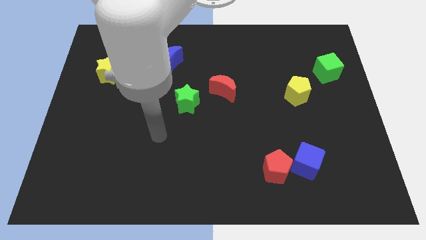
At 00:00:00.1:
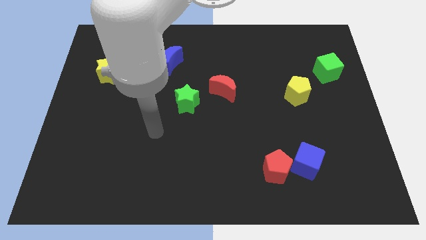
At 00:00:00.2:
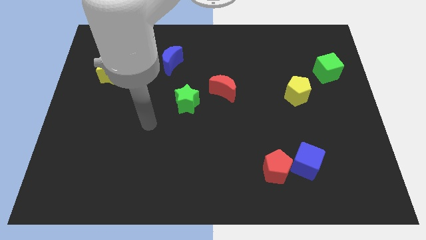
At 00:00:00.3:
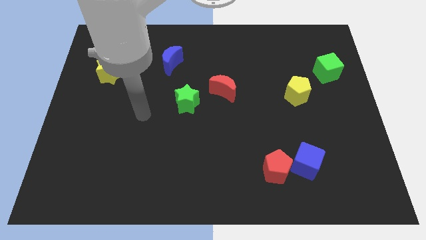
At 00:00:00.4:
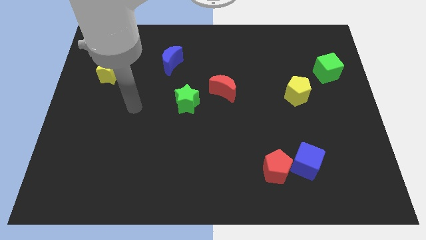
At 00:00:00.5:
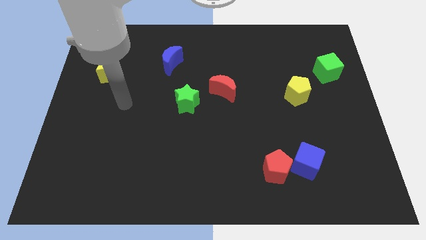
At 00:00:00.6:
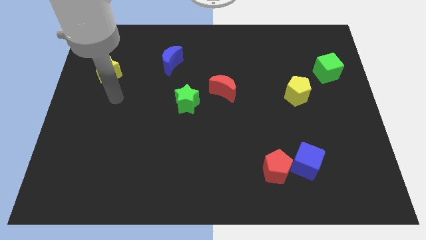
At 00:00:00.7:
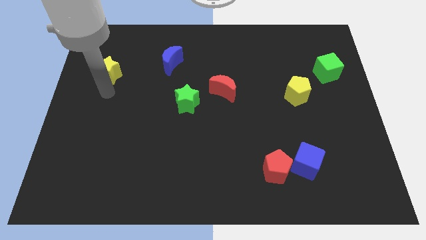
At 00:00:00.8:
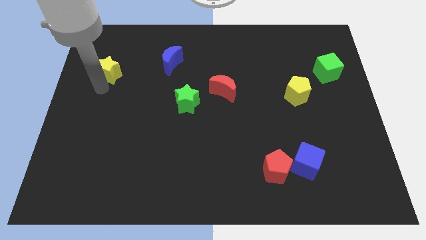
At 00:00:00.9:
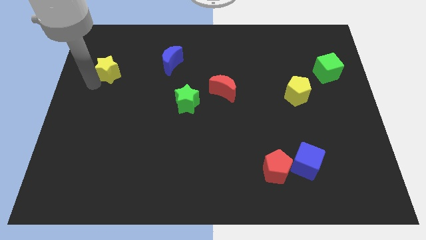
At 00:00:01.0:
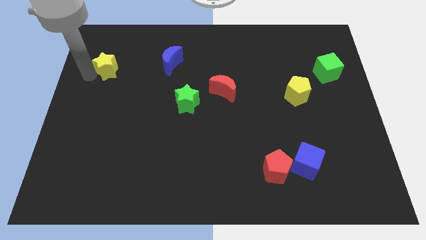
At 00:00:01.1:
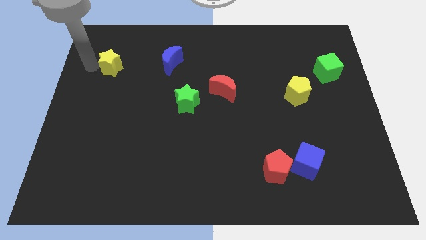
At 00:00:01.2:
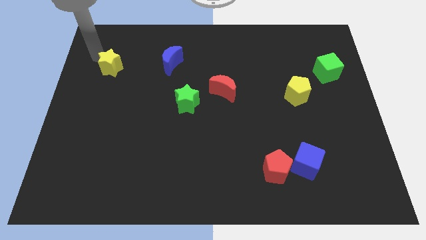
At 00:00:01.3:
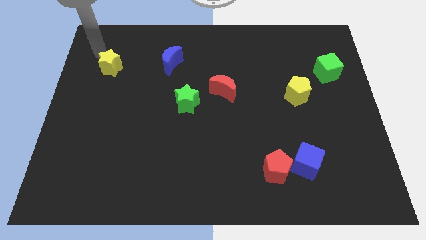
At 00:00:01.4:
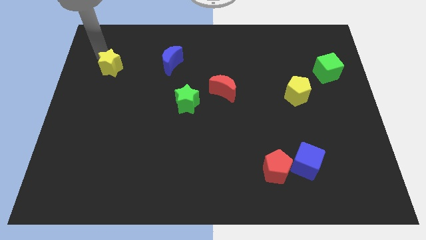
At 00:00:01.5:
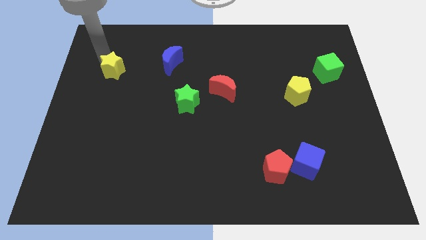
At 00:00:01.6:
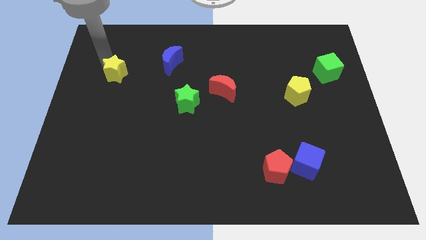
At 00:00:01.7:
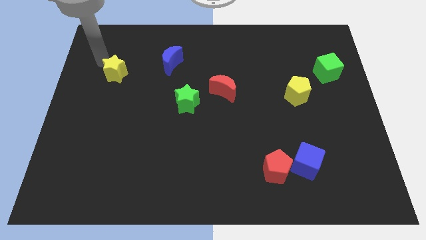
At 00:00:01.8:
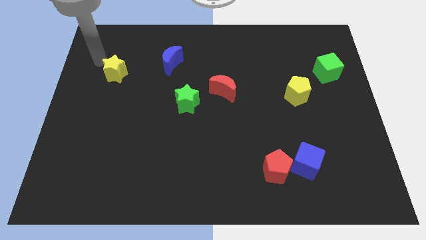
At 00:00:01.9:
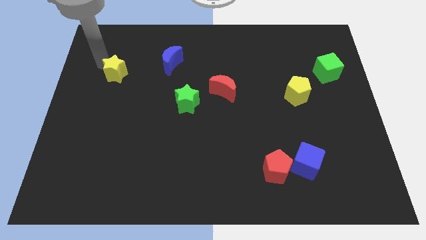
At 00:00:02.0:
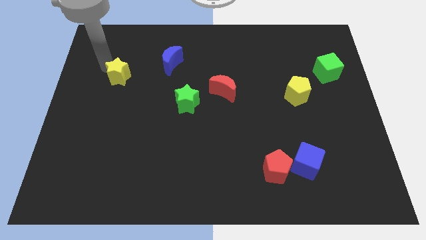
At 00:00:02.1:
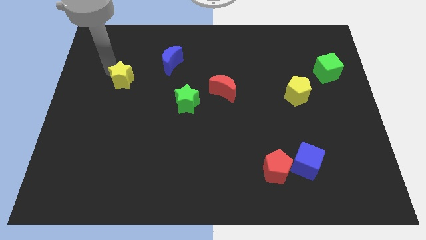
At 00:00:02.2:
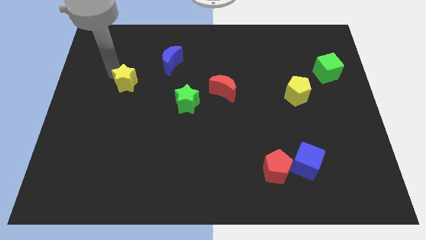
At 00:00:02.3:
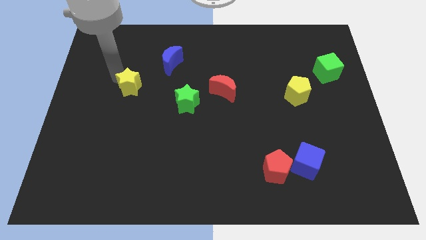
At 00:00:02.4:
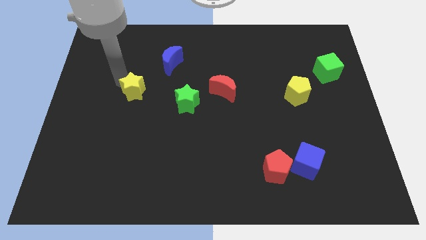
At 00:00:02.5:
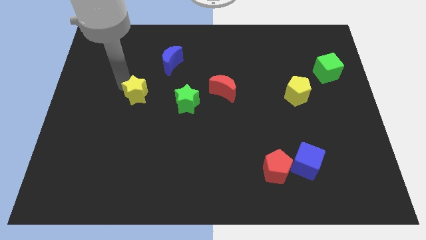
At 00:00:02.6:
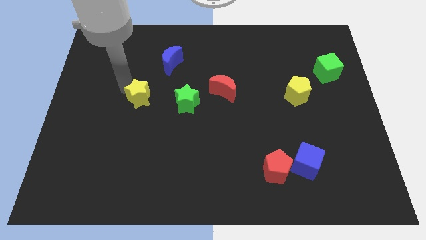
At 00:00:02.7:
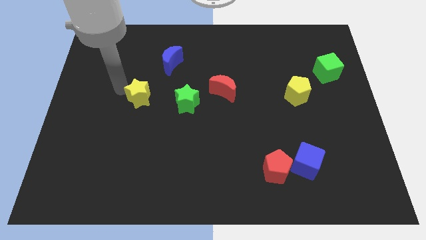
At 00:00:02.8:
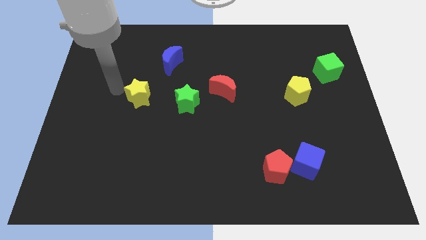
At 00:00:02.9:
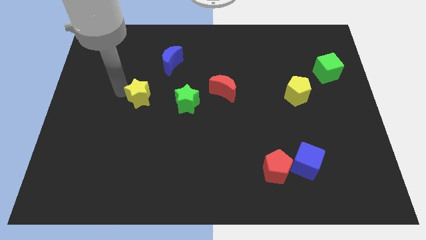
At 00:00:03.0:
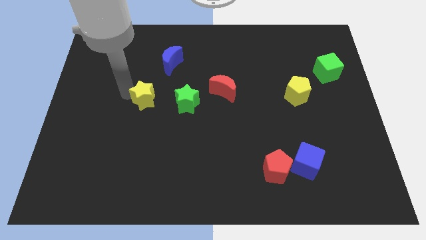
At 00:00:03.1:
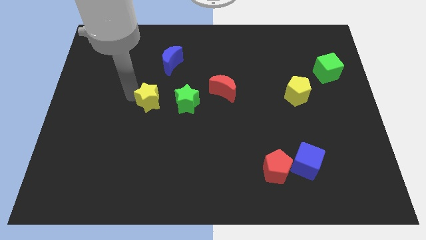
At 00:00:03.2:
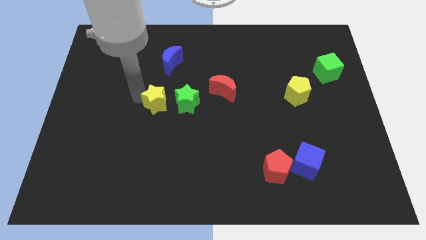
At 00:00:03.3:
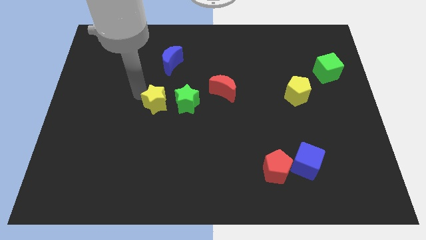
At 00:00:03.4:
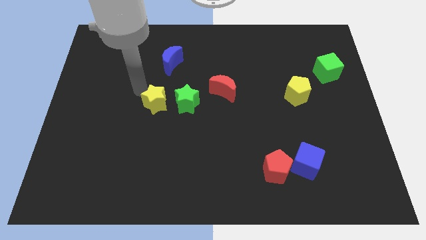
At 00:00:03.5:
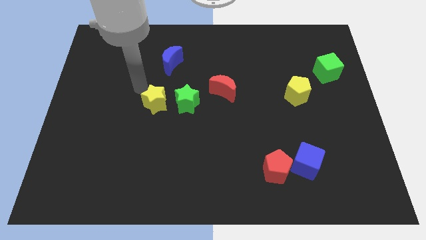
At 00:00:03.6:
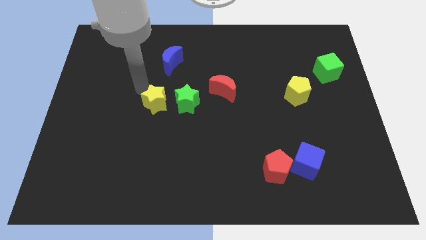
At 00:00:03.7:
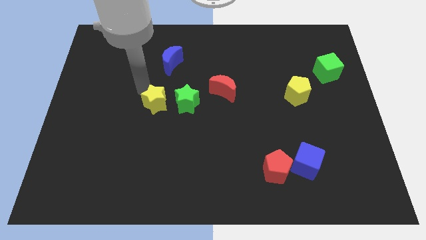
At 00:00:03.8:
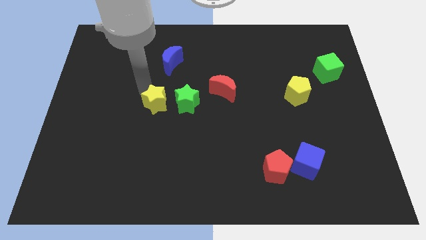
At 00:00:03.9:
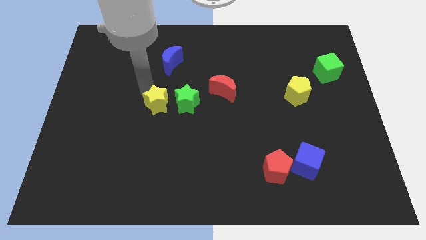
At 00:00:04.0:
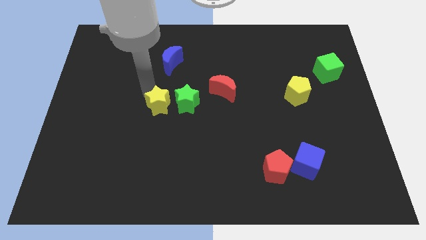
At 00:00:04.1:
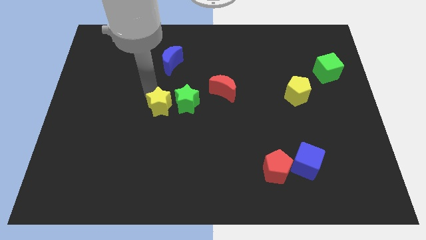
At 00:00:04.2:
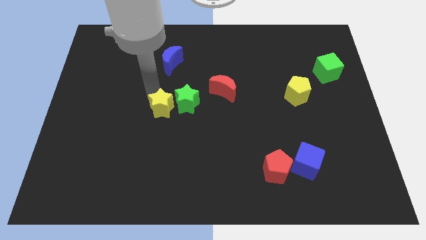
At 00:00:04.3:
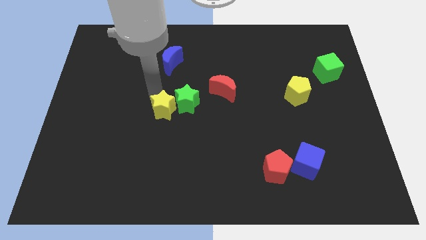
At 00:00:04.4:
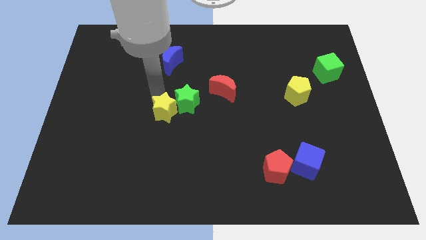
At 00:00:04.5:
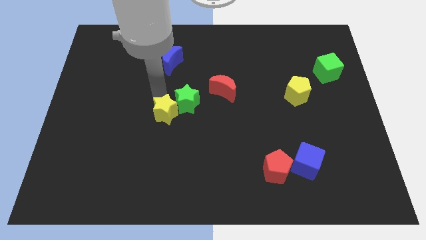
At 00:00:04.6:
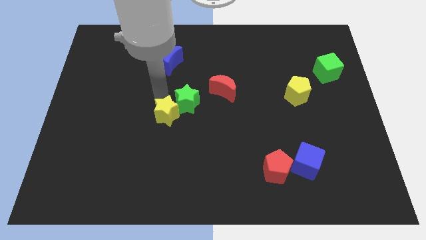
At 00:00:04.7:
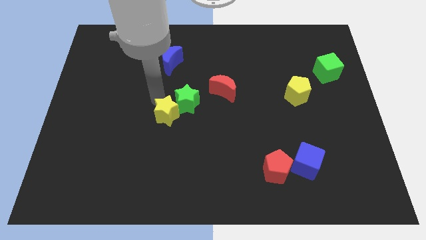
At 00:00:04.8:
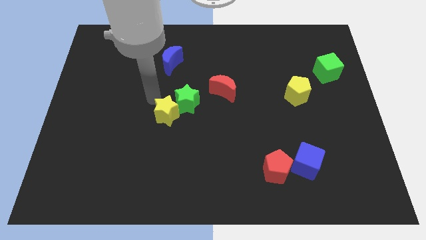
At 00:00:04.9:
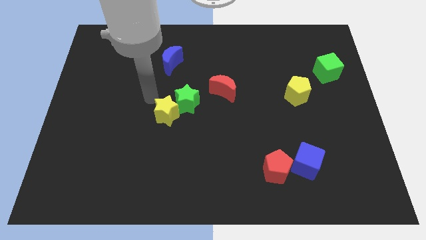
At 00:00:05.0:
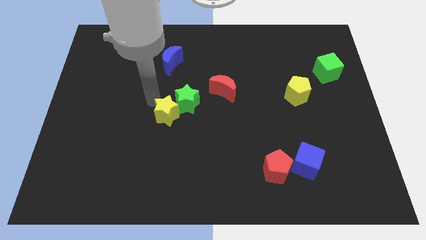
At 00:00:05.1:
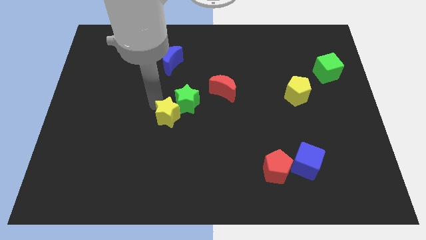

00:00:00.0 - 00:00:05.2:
put the yellow star to the bottom side of the green star

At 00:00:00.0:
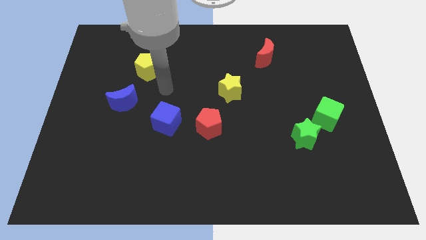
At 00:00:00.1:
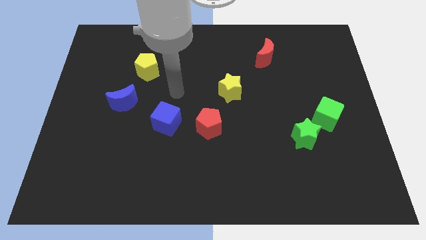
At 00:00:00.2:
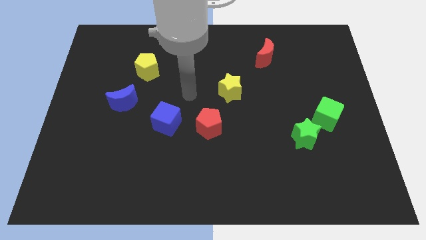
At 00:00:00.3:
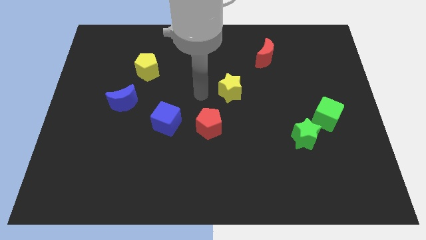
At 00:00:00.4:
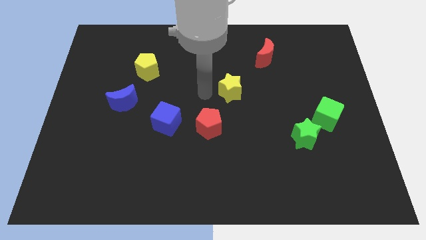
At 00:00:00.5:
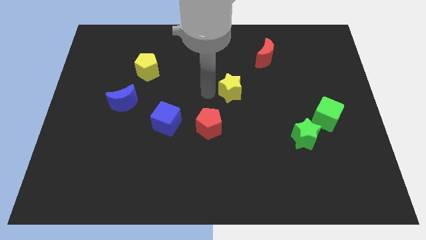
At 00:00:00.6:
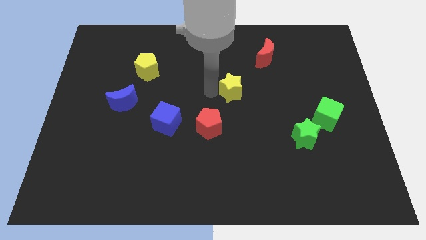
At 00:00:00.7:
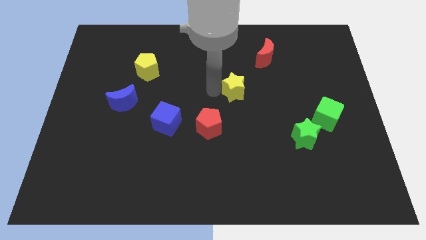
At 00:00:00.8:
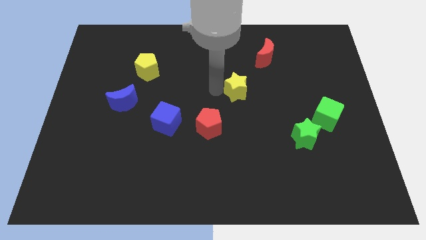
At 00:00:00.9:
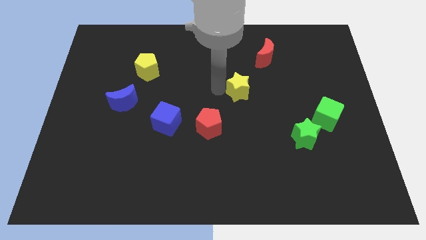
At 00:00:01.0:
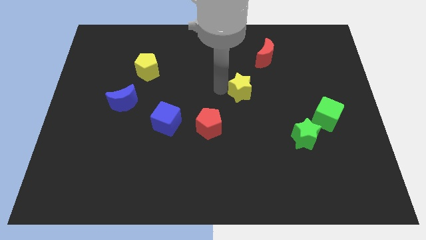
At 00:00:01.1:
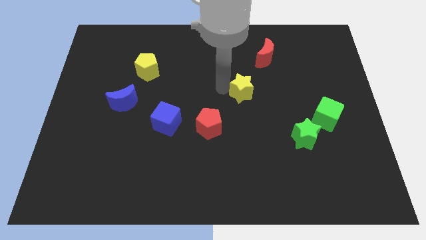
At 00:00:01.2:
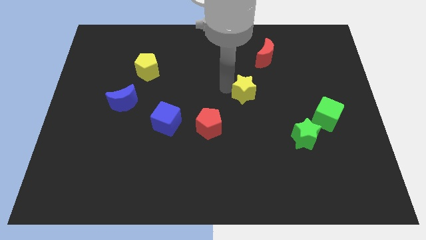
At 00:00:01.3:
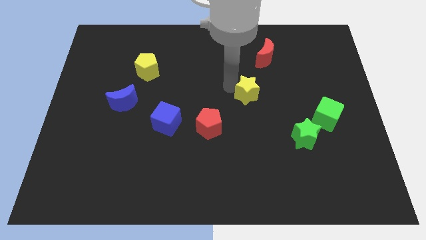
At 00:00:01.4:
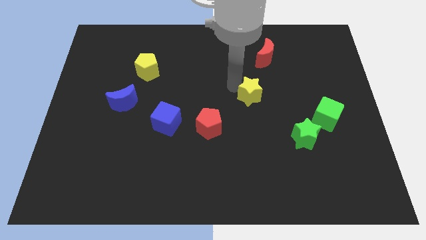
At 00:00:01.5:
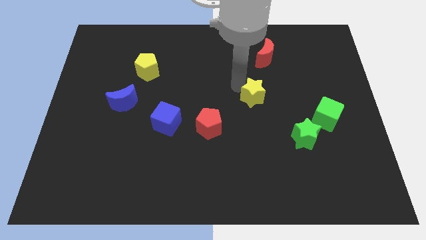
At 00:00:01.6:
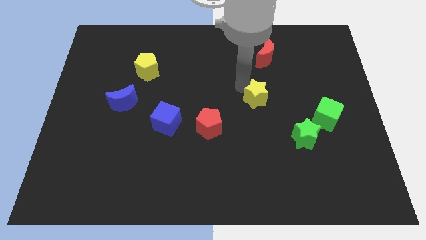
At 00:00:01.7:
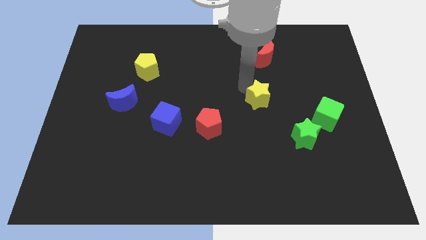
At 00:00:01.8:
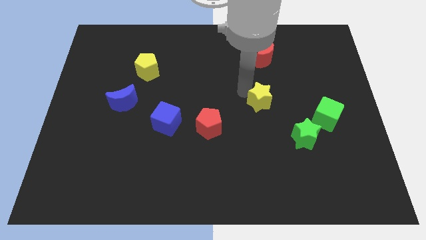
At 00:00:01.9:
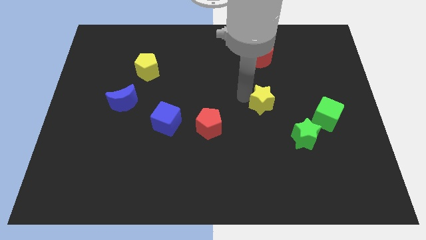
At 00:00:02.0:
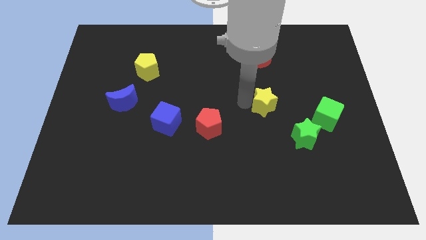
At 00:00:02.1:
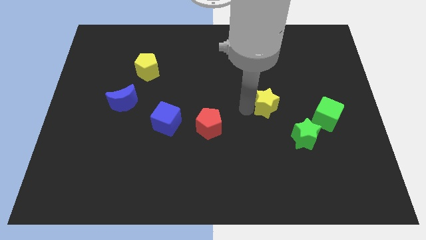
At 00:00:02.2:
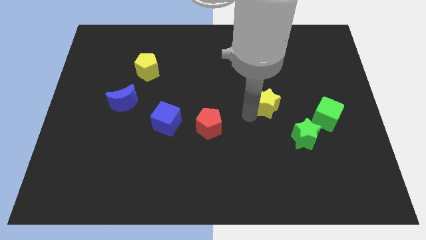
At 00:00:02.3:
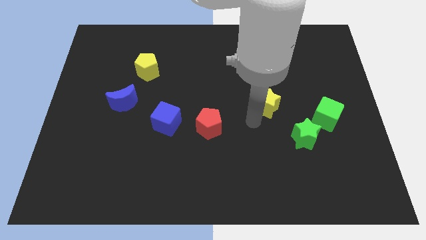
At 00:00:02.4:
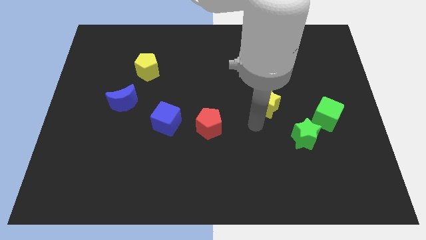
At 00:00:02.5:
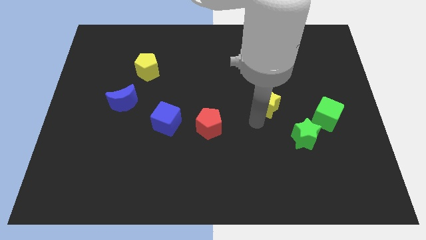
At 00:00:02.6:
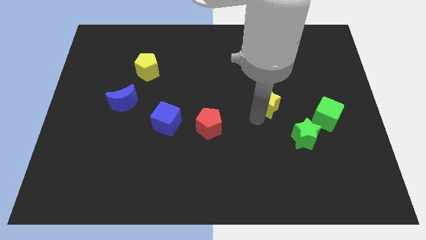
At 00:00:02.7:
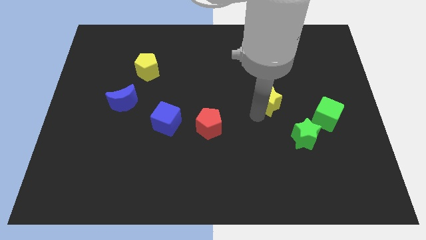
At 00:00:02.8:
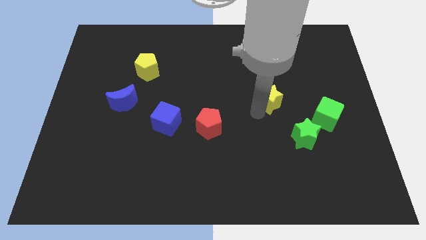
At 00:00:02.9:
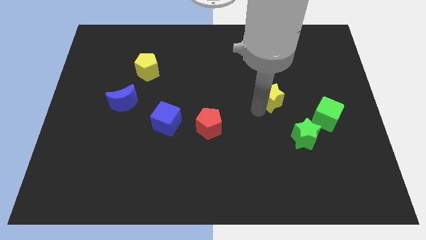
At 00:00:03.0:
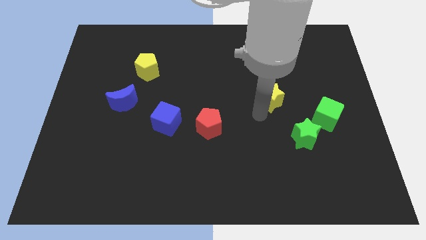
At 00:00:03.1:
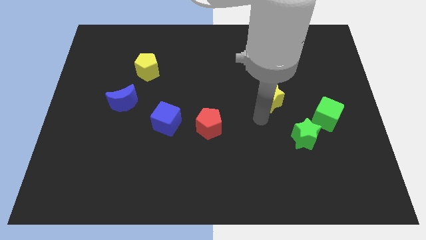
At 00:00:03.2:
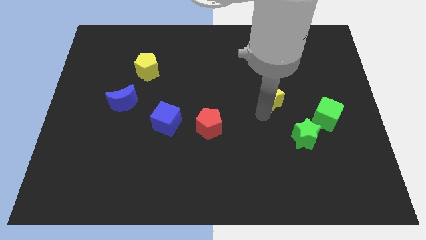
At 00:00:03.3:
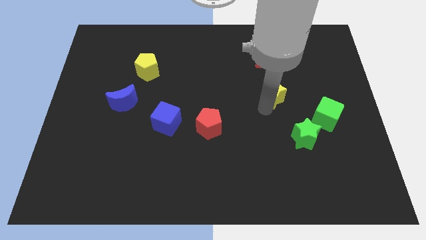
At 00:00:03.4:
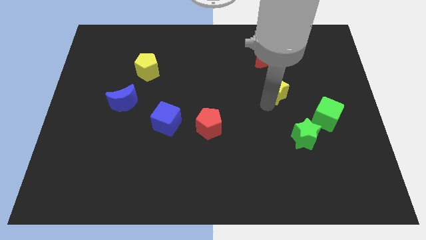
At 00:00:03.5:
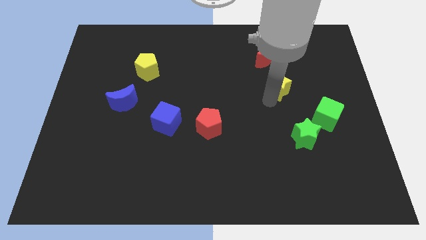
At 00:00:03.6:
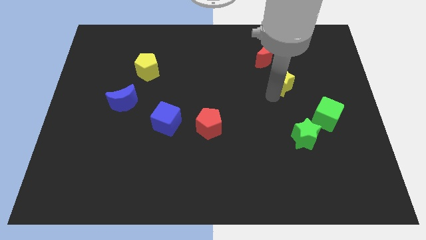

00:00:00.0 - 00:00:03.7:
move the yellow star to the bottom right of the red moon
